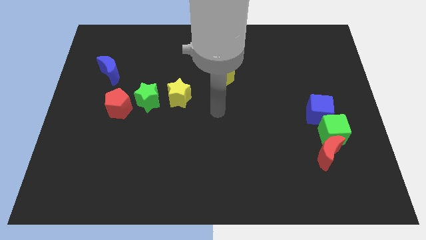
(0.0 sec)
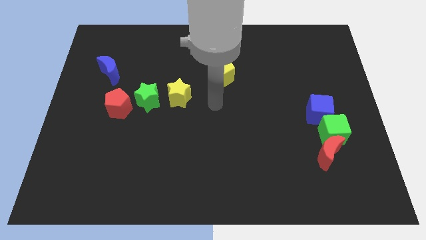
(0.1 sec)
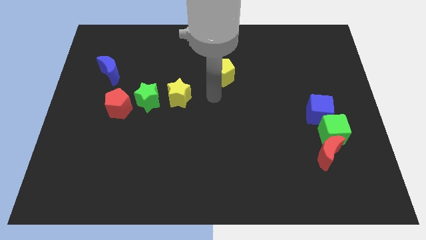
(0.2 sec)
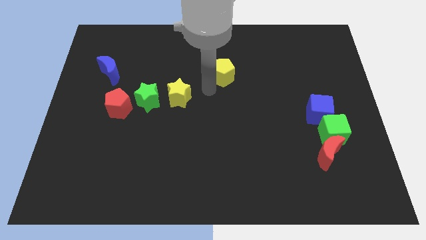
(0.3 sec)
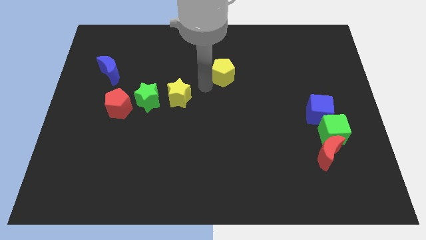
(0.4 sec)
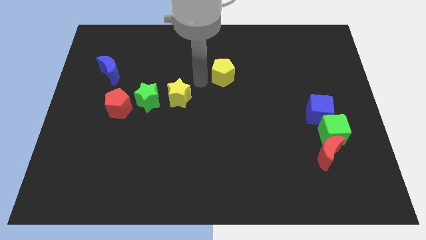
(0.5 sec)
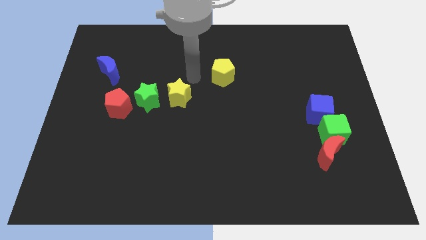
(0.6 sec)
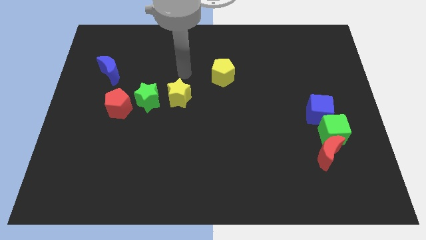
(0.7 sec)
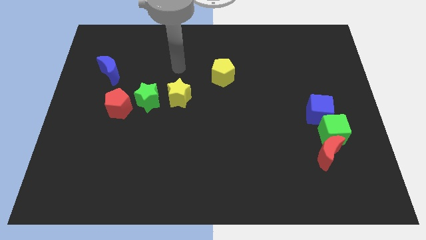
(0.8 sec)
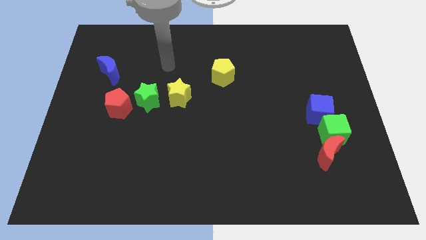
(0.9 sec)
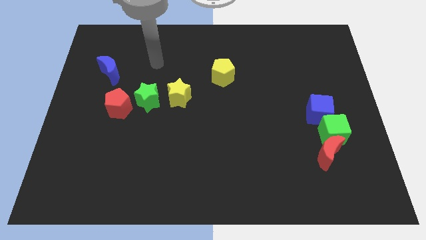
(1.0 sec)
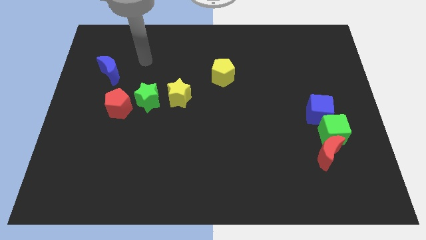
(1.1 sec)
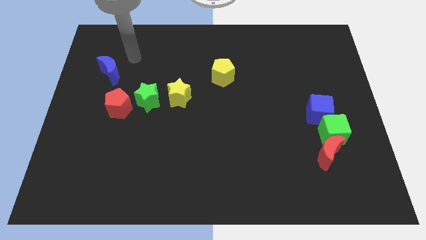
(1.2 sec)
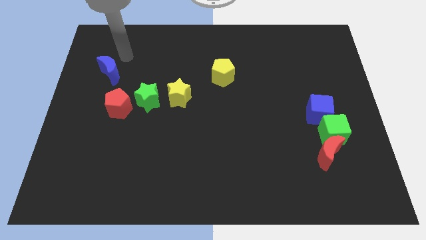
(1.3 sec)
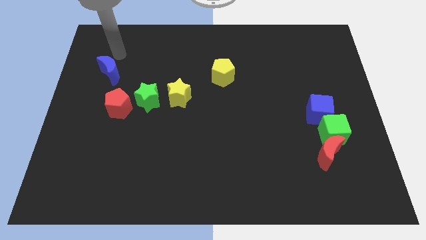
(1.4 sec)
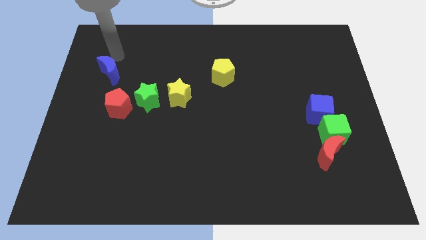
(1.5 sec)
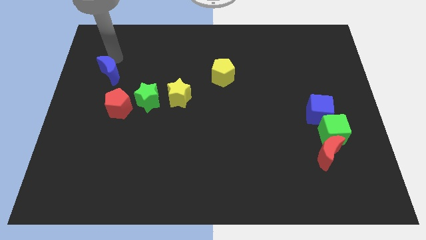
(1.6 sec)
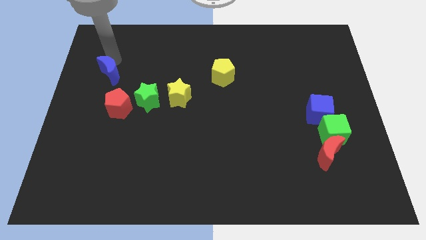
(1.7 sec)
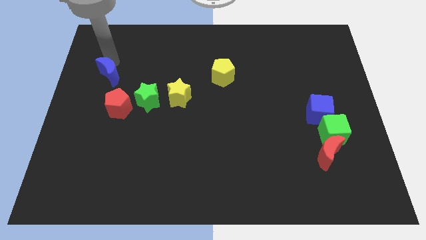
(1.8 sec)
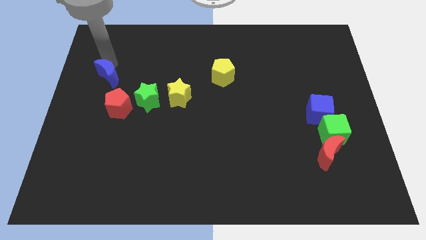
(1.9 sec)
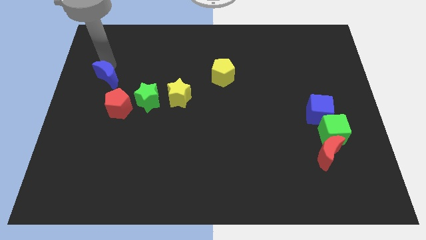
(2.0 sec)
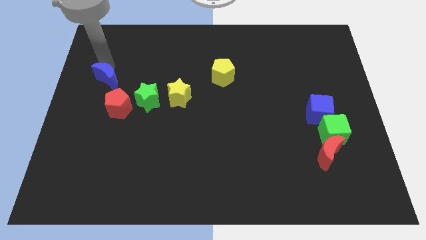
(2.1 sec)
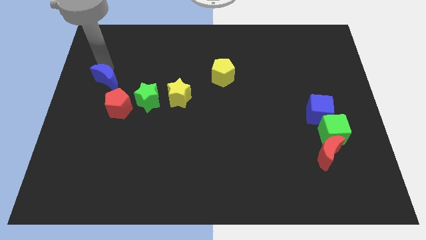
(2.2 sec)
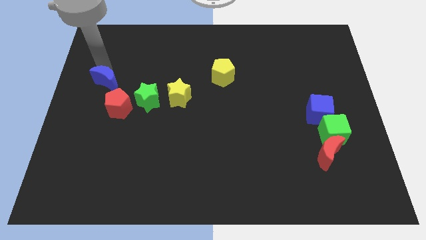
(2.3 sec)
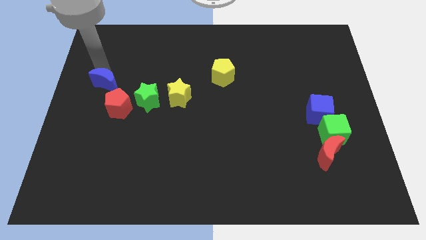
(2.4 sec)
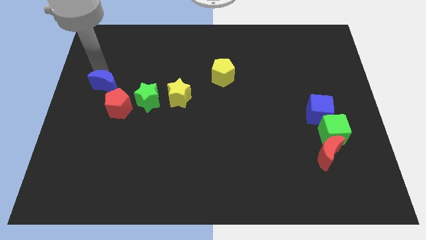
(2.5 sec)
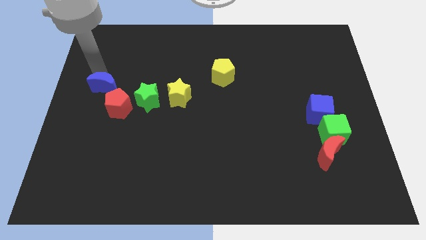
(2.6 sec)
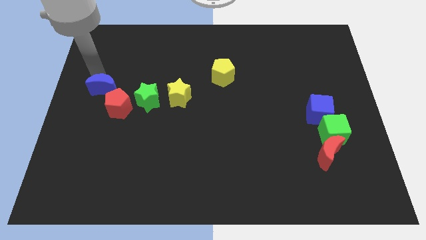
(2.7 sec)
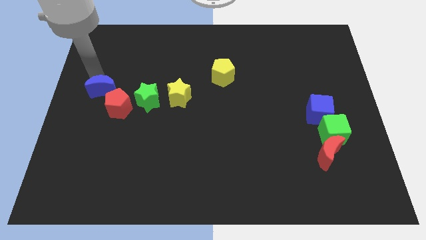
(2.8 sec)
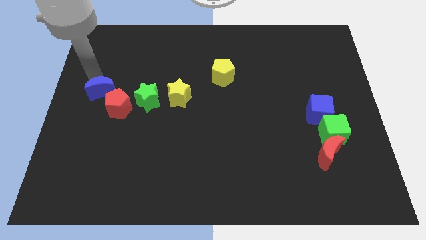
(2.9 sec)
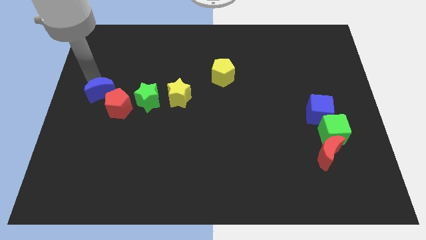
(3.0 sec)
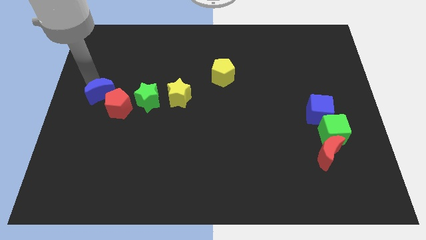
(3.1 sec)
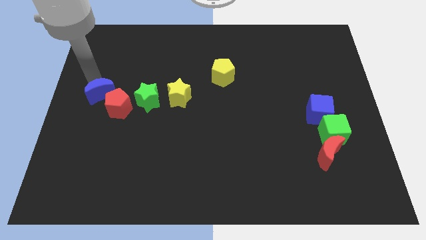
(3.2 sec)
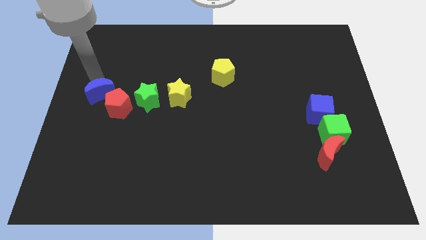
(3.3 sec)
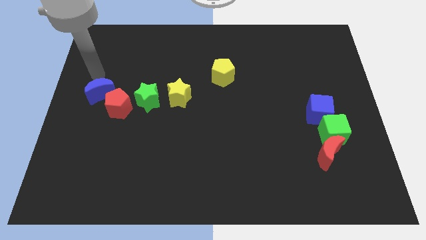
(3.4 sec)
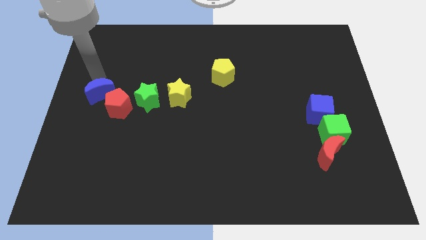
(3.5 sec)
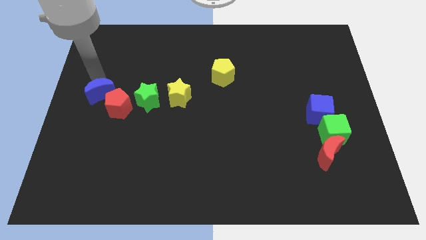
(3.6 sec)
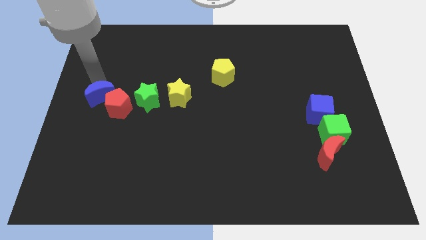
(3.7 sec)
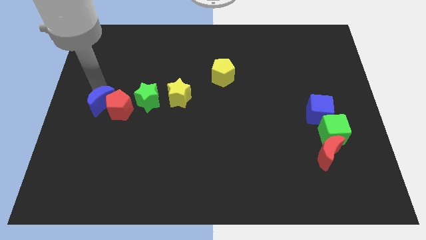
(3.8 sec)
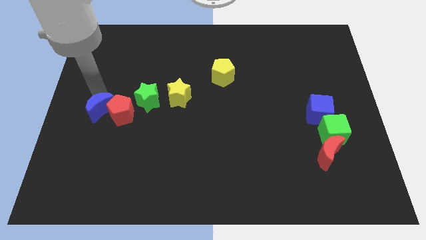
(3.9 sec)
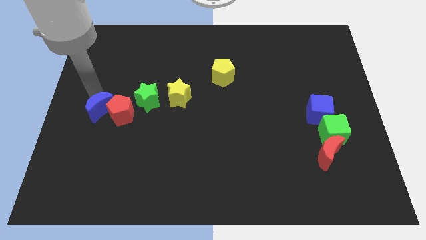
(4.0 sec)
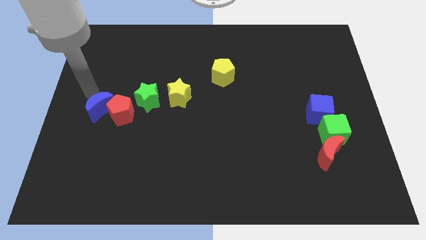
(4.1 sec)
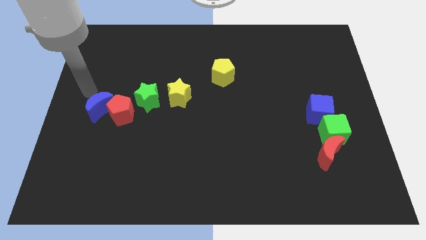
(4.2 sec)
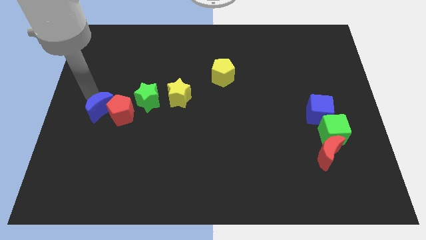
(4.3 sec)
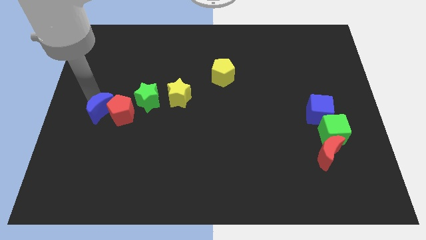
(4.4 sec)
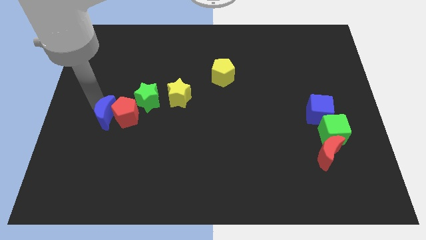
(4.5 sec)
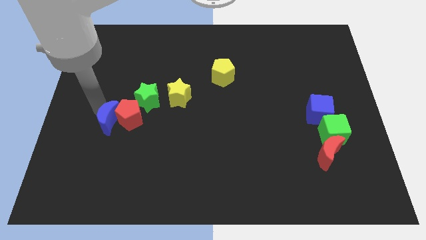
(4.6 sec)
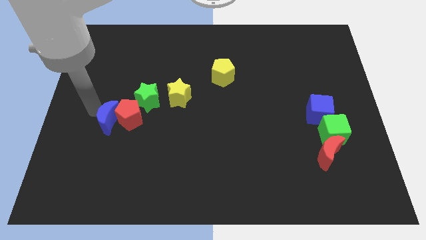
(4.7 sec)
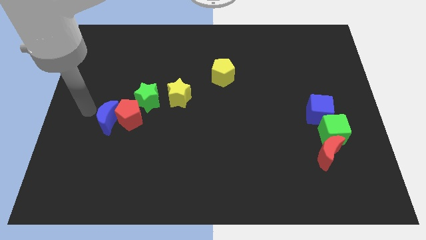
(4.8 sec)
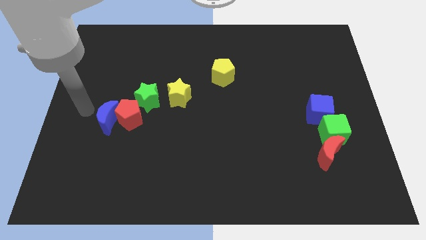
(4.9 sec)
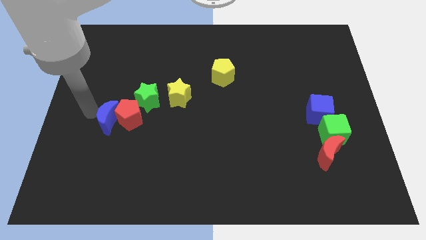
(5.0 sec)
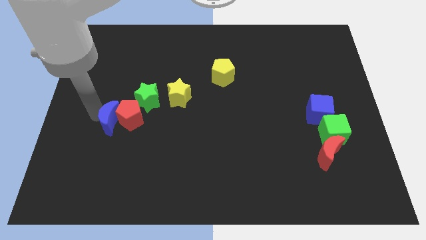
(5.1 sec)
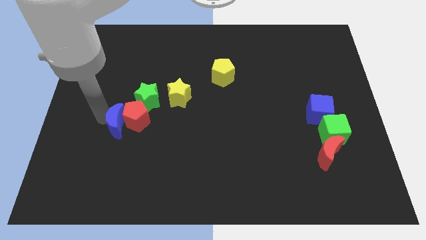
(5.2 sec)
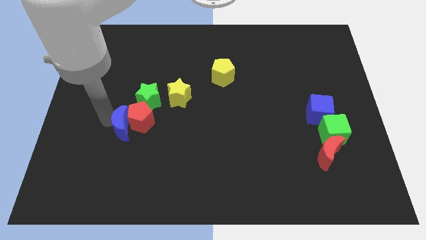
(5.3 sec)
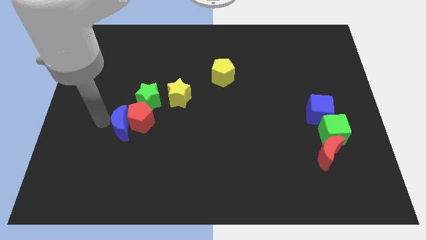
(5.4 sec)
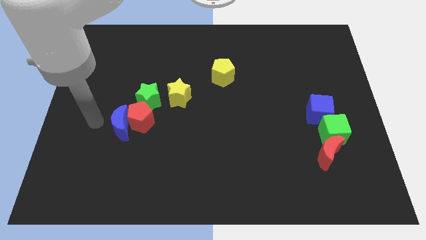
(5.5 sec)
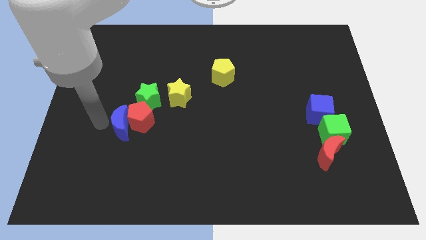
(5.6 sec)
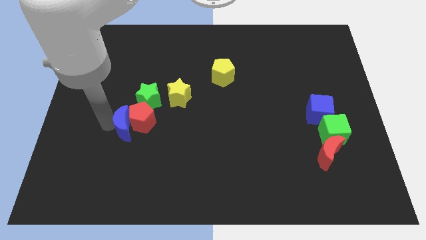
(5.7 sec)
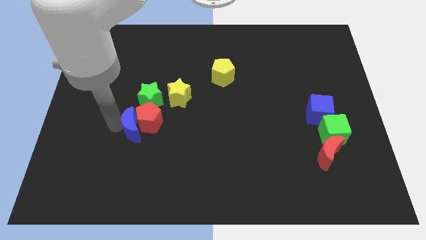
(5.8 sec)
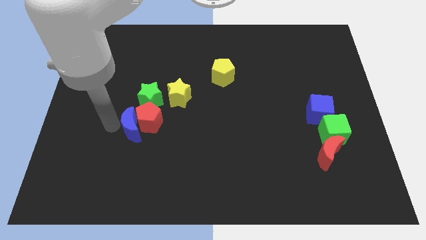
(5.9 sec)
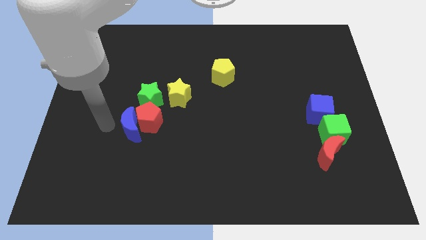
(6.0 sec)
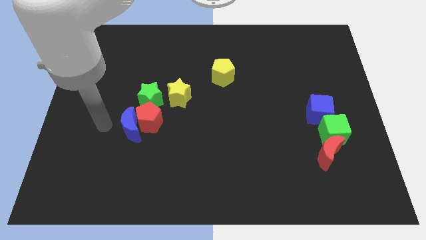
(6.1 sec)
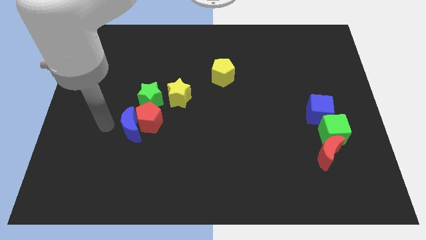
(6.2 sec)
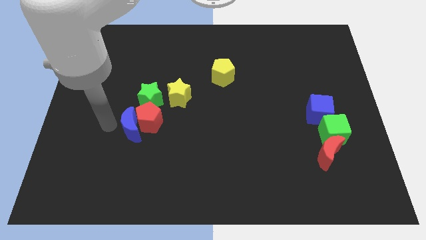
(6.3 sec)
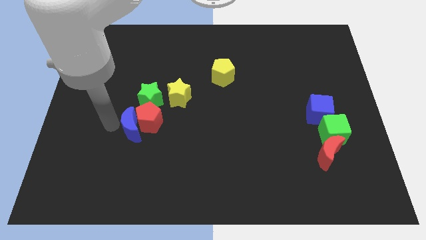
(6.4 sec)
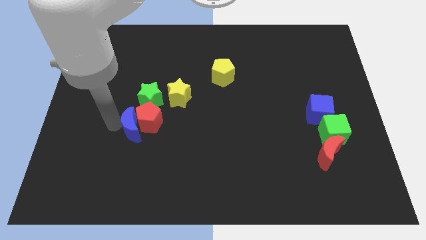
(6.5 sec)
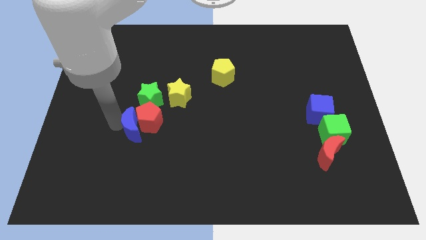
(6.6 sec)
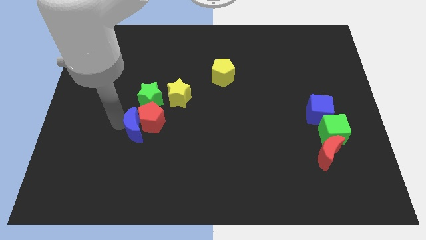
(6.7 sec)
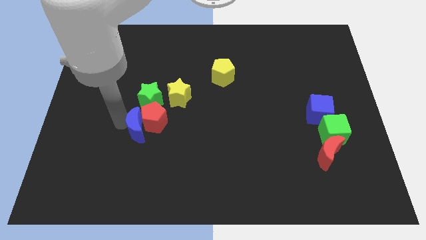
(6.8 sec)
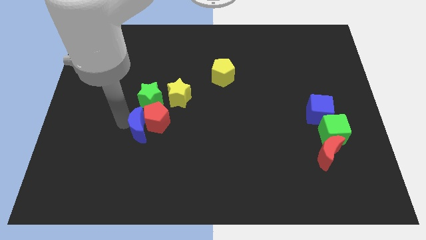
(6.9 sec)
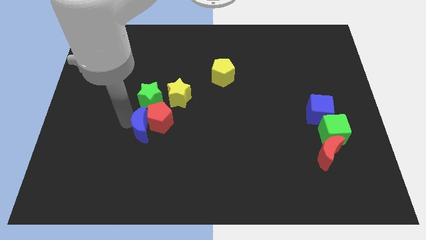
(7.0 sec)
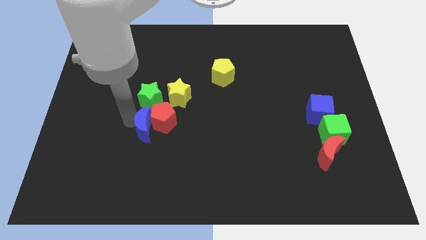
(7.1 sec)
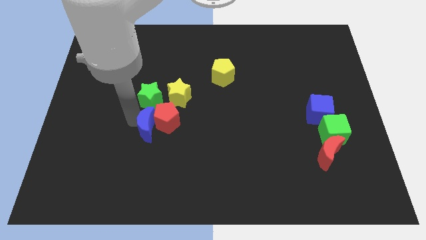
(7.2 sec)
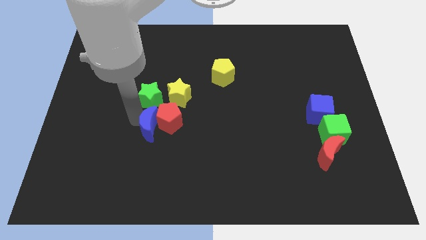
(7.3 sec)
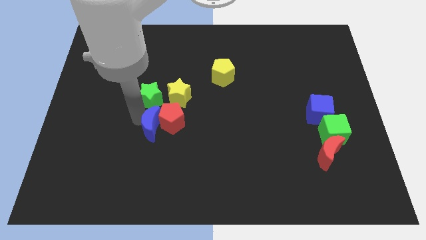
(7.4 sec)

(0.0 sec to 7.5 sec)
move the blue moon downwards and to the right

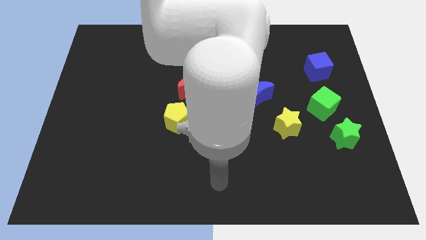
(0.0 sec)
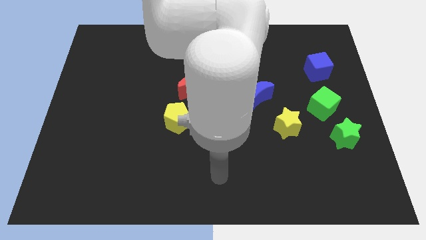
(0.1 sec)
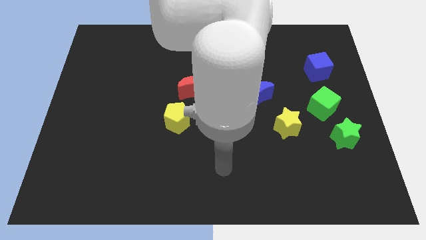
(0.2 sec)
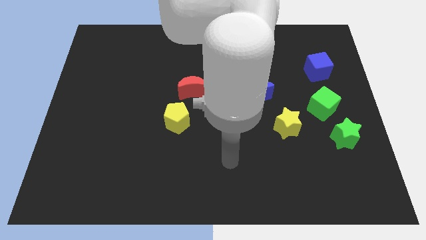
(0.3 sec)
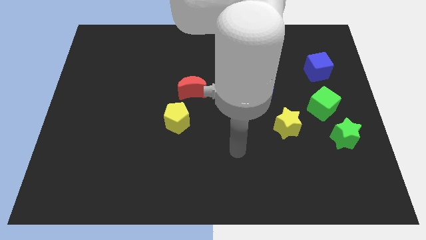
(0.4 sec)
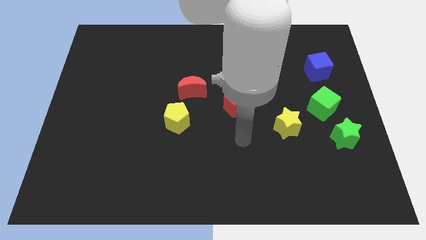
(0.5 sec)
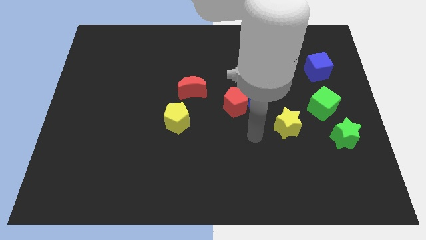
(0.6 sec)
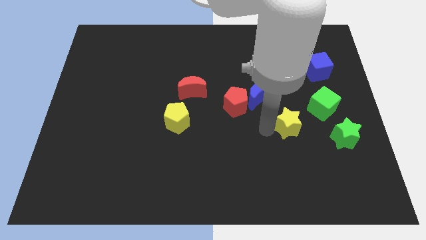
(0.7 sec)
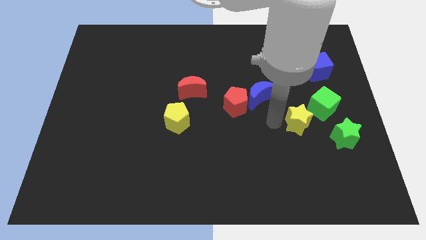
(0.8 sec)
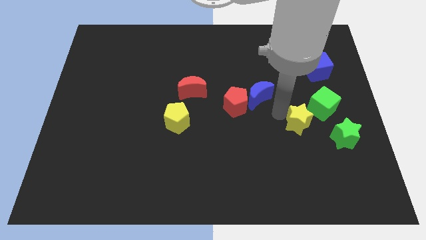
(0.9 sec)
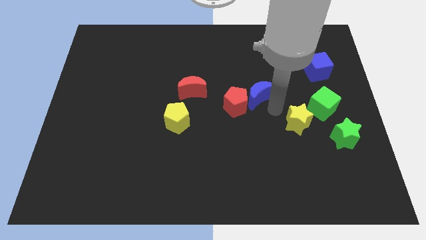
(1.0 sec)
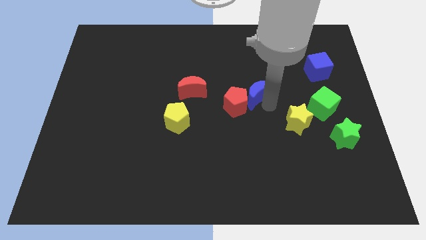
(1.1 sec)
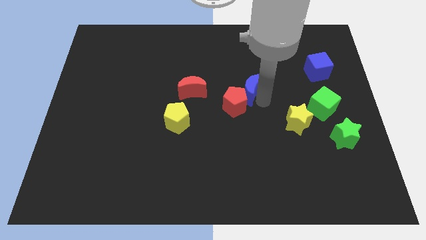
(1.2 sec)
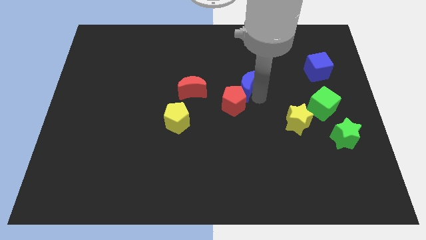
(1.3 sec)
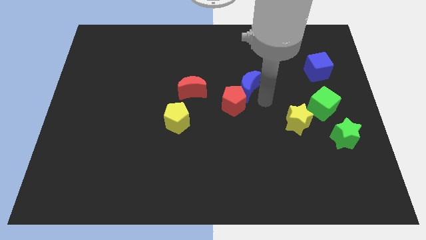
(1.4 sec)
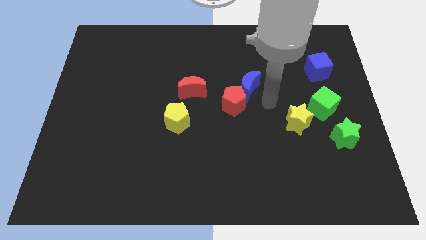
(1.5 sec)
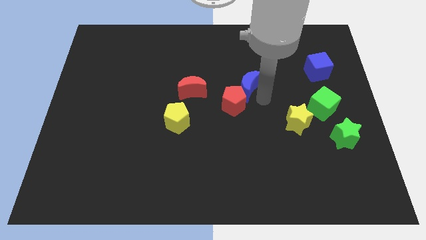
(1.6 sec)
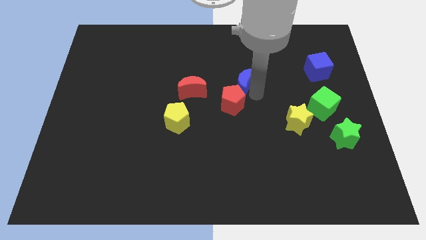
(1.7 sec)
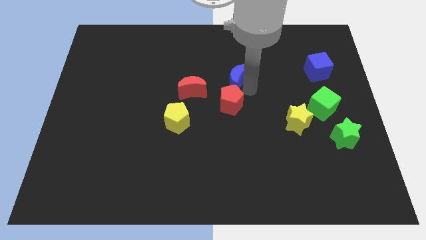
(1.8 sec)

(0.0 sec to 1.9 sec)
slightly push the blue moon up and then left
